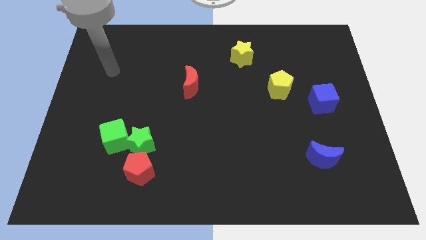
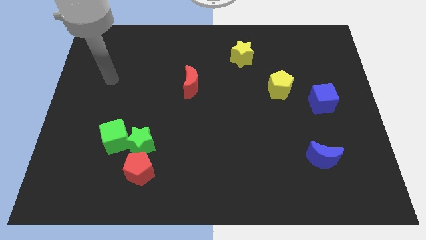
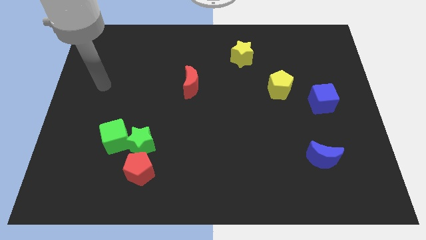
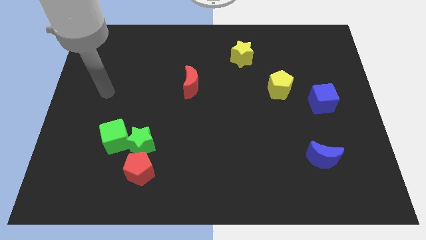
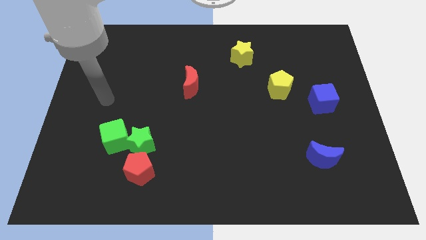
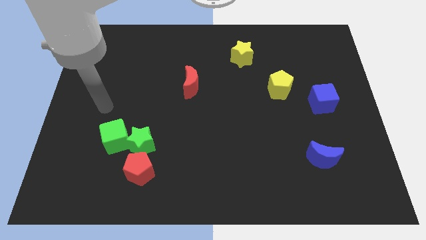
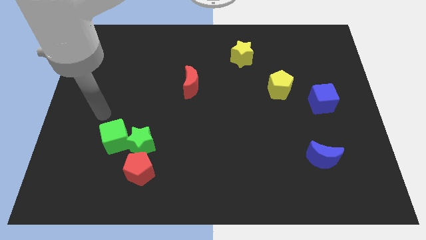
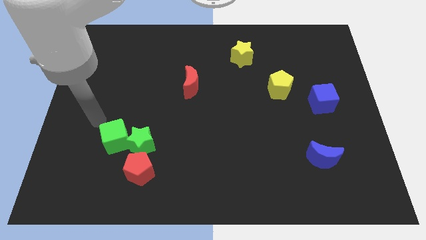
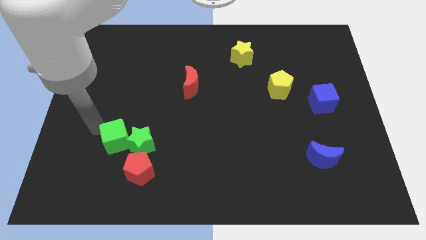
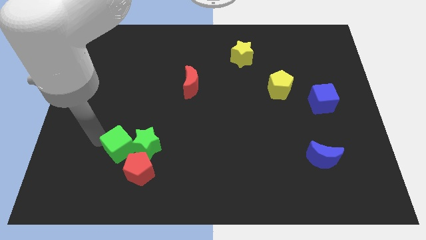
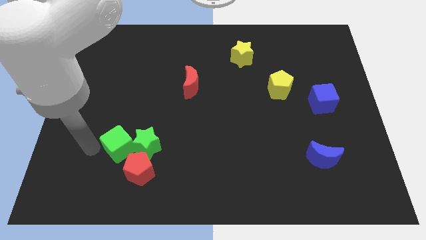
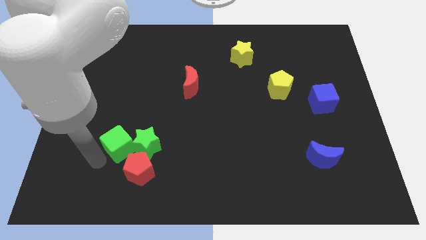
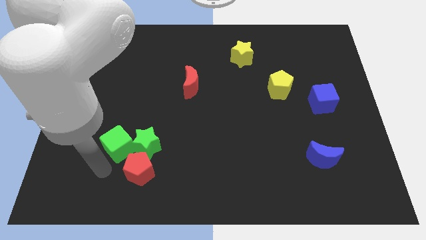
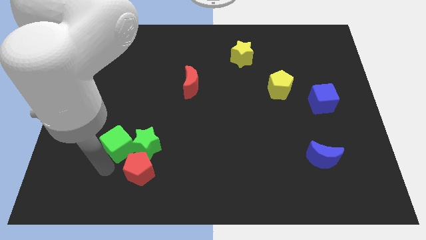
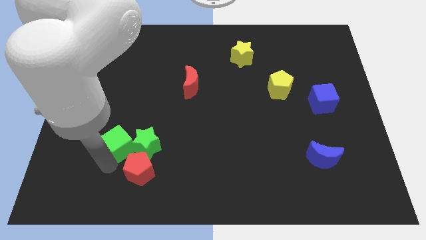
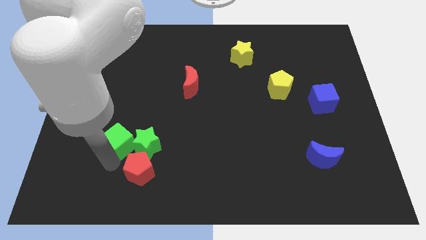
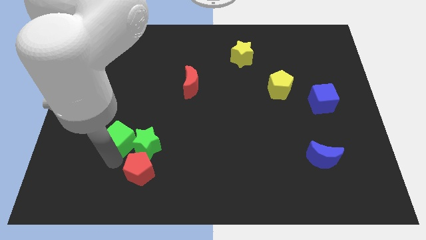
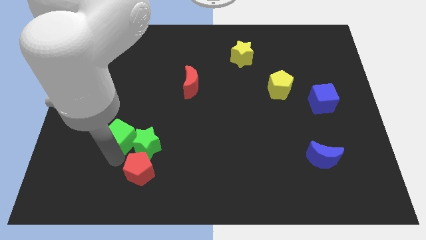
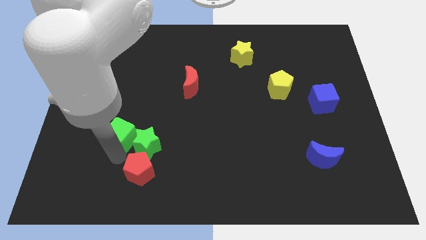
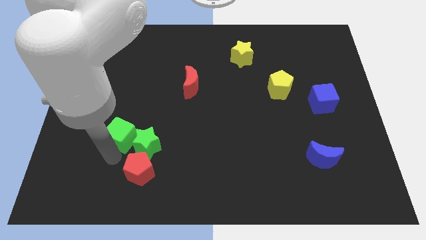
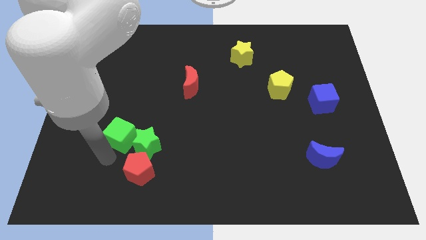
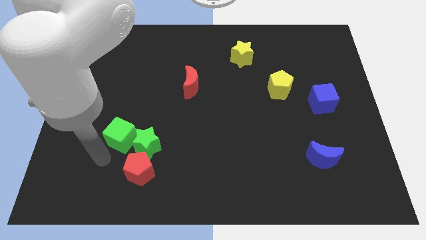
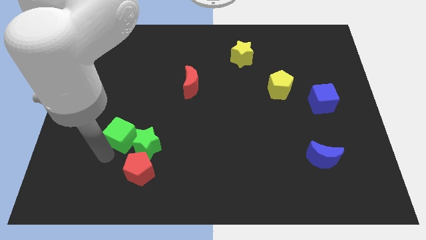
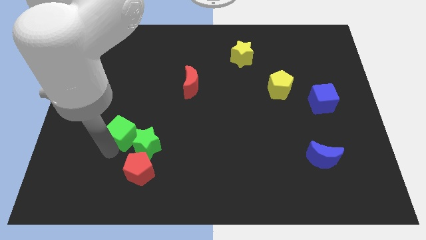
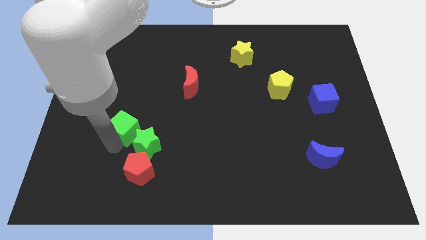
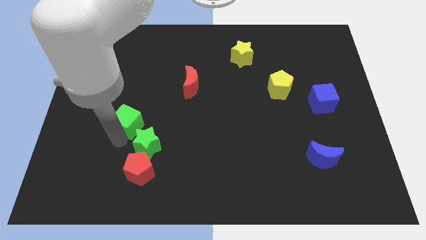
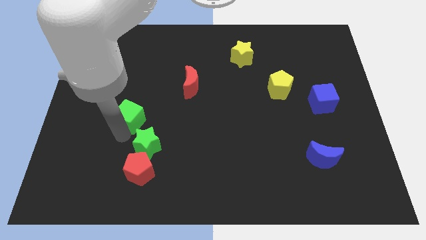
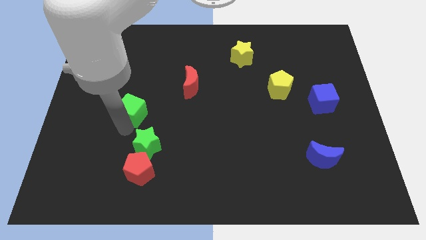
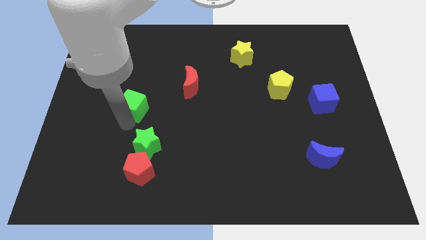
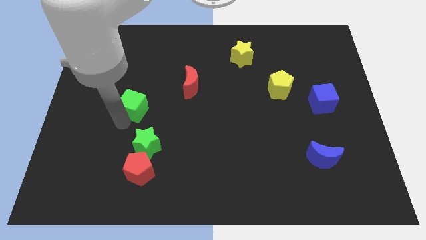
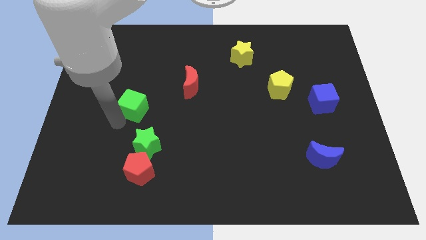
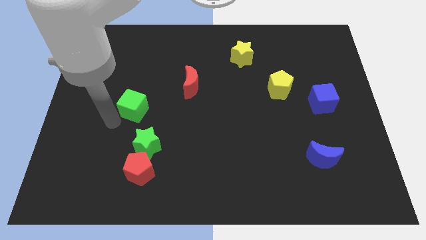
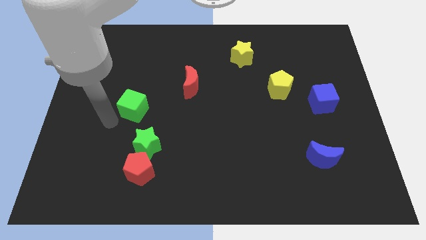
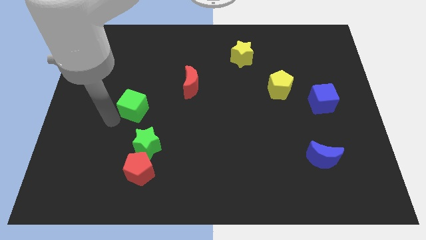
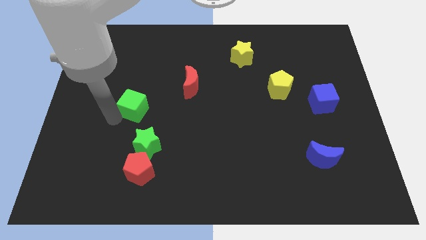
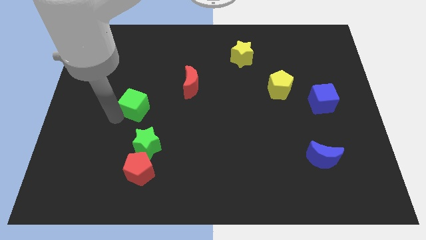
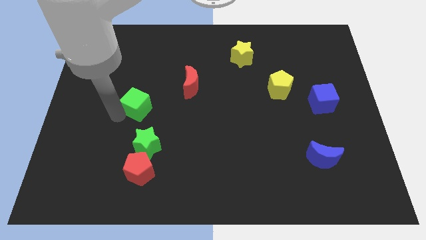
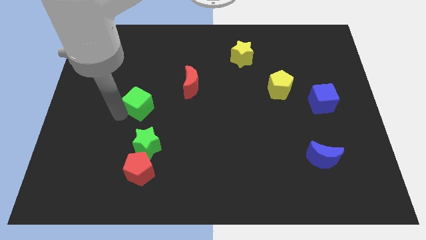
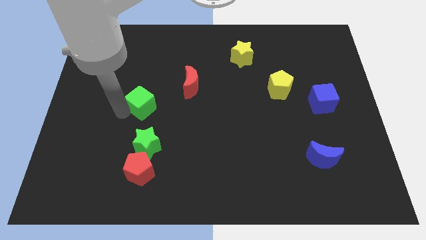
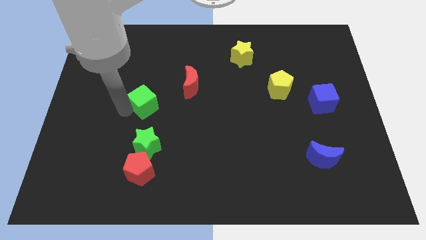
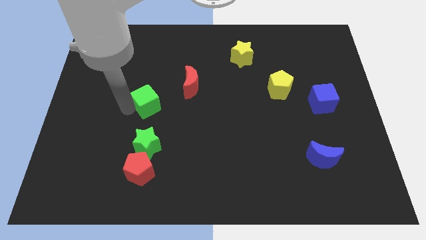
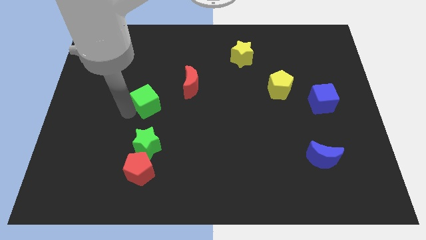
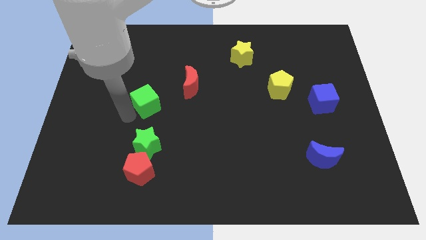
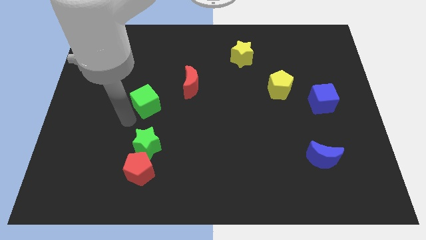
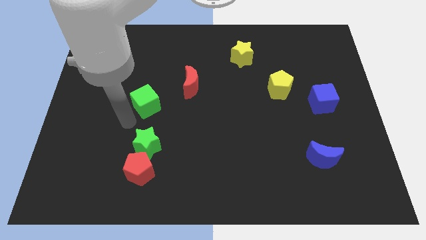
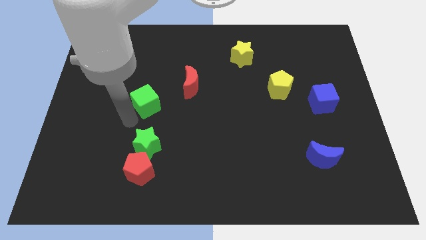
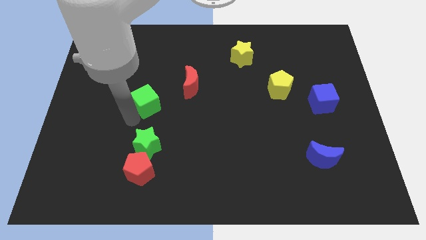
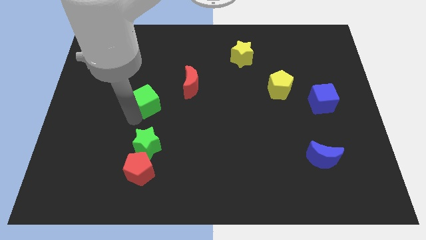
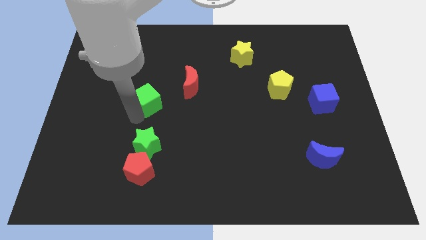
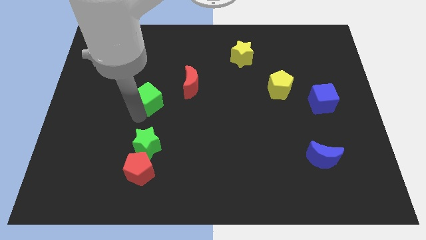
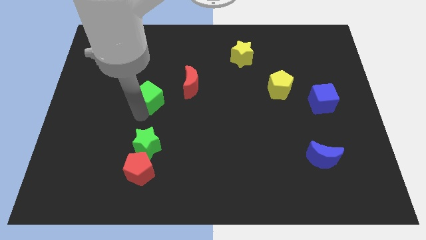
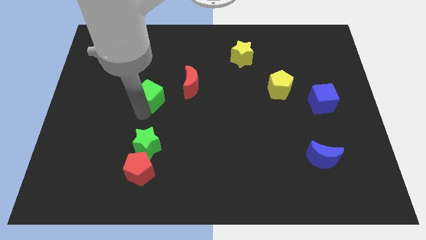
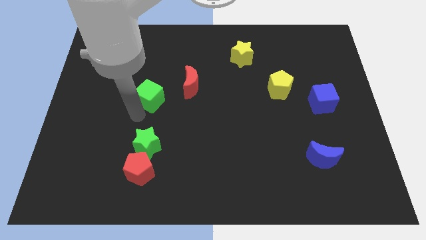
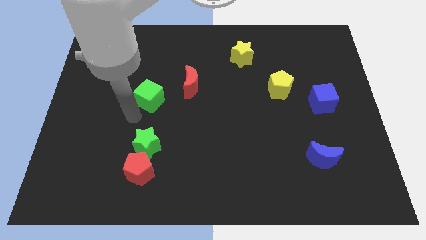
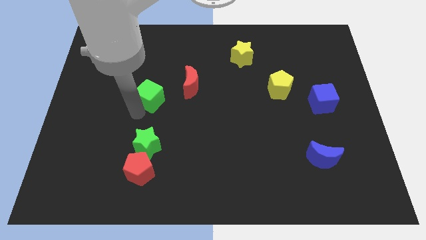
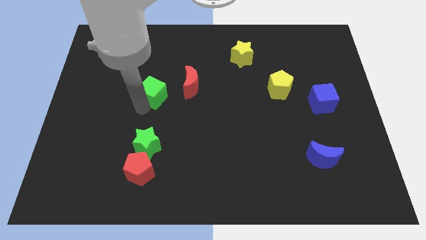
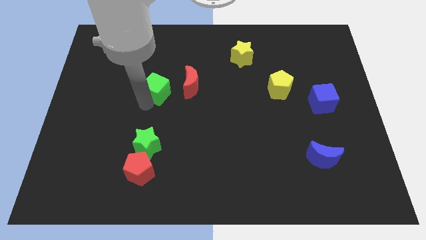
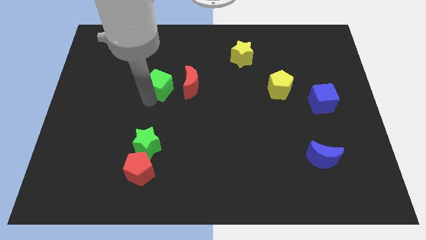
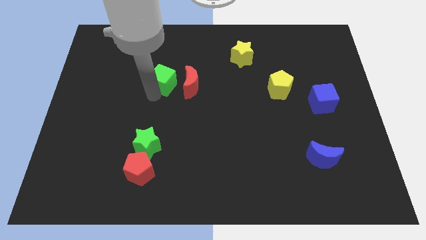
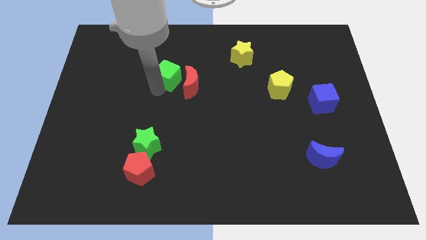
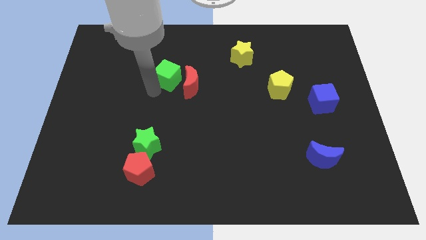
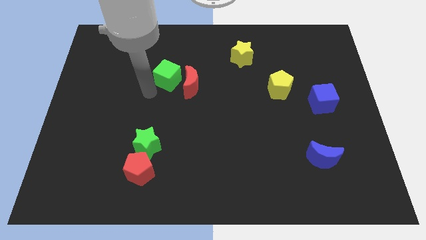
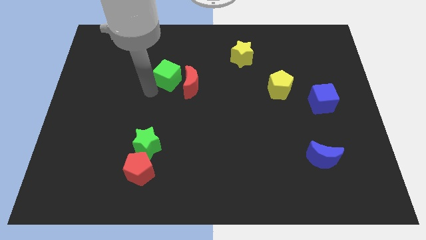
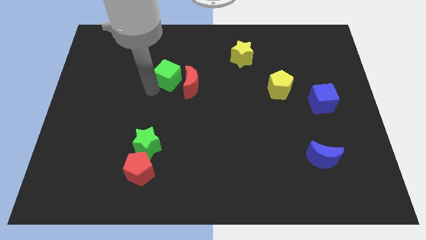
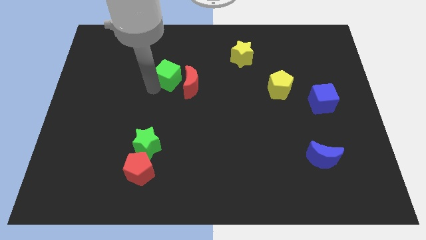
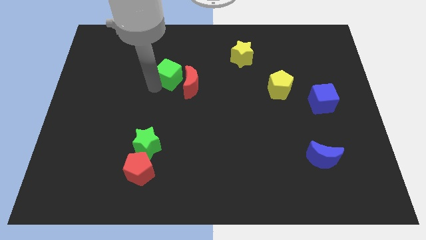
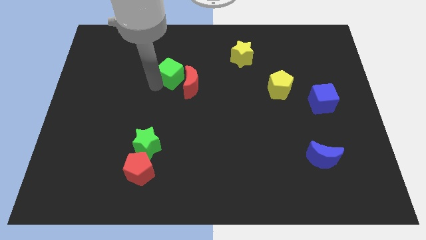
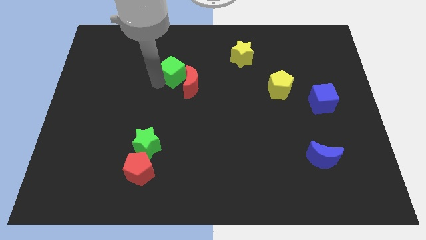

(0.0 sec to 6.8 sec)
push the green cube diagonally upwards and to the right

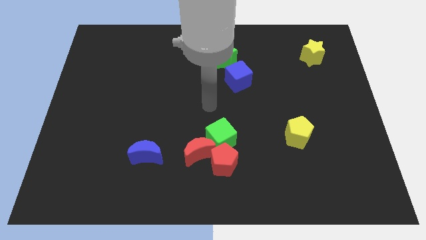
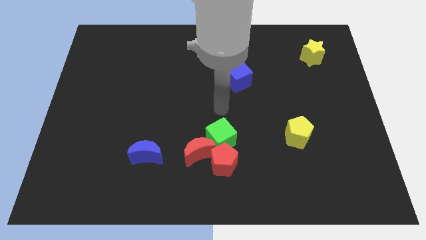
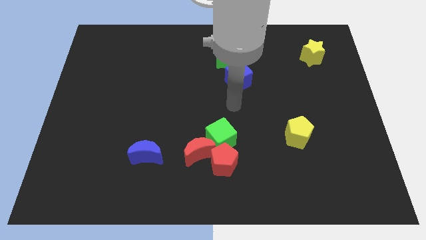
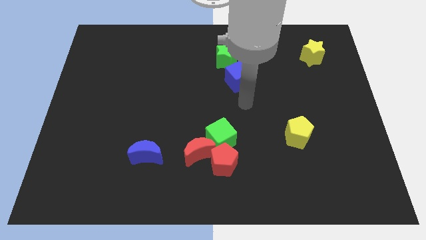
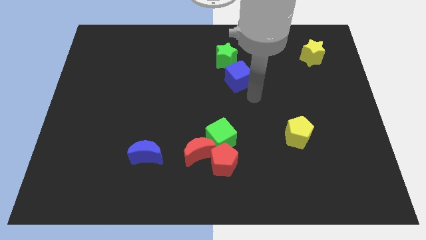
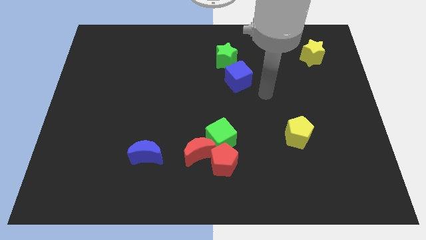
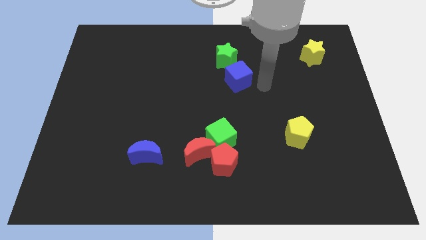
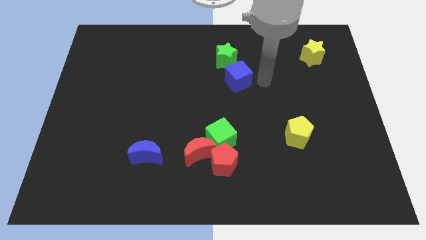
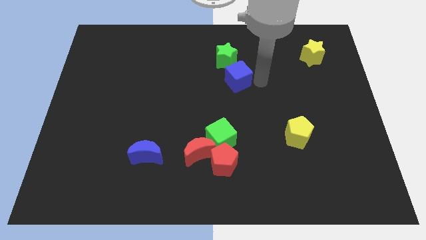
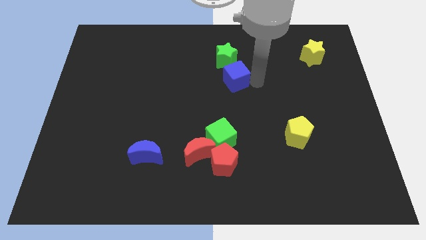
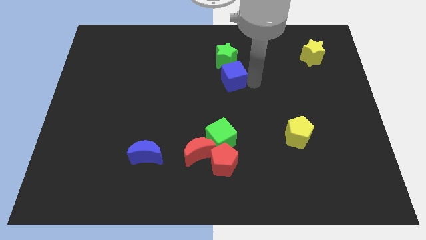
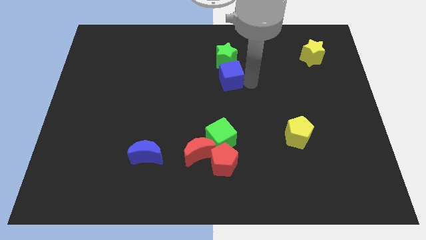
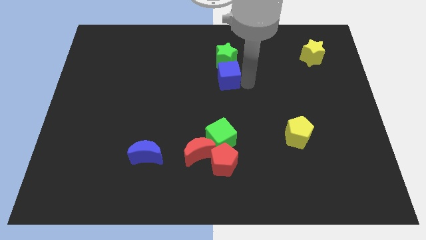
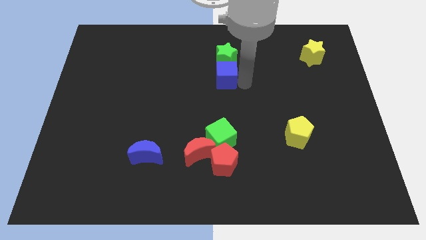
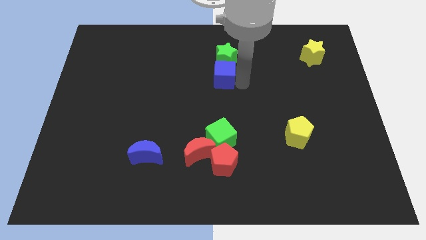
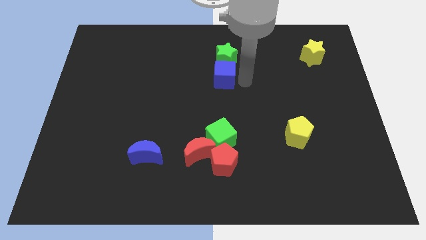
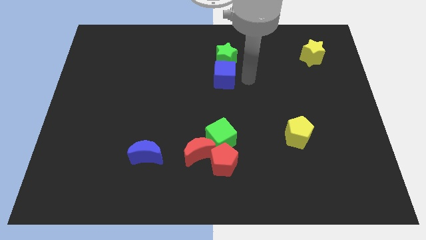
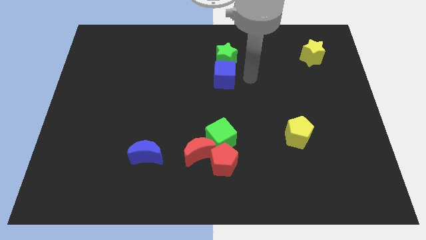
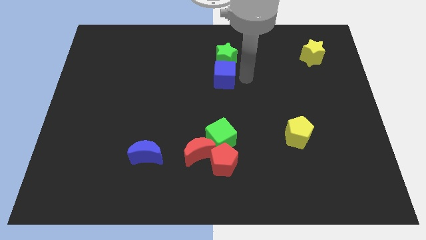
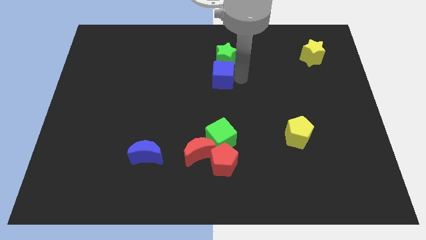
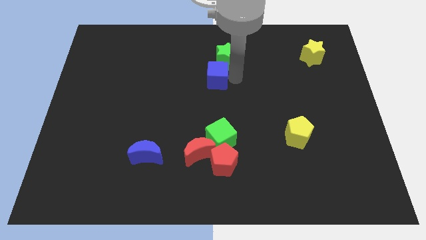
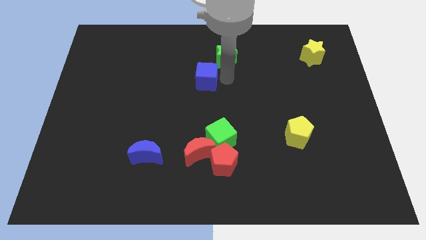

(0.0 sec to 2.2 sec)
slide the blue cube left slightly
